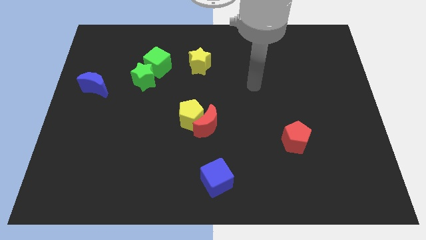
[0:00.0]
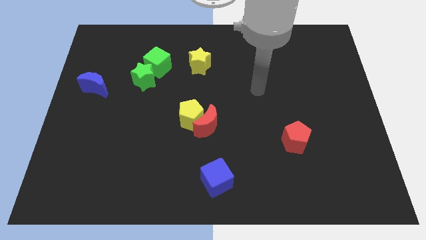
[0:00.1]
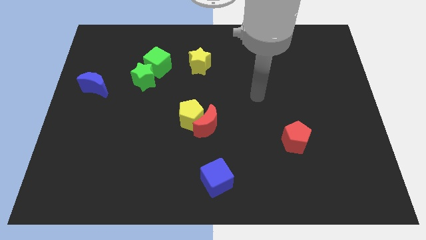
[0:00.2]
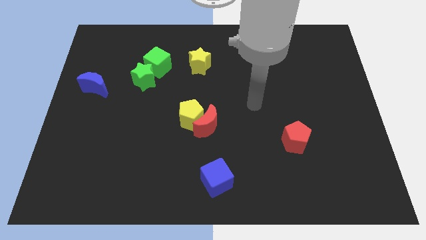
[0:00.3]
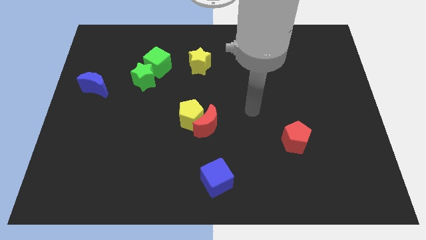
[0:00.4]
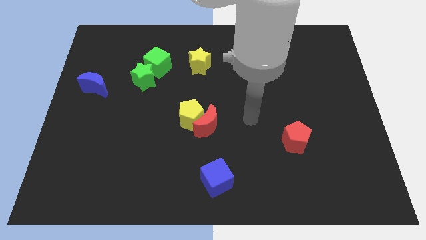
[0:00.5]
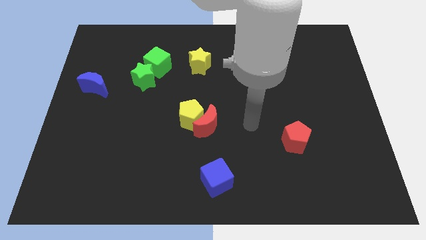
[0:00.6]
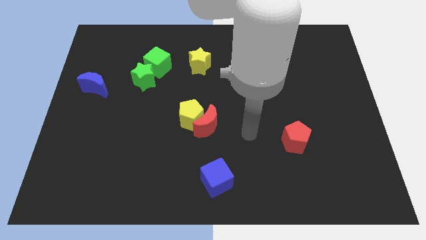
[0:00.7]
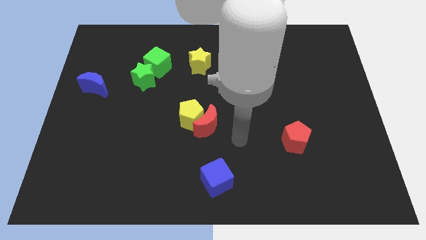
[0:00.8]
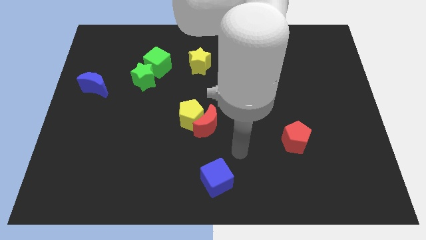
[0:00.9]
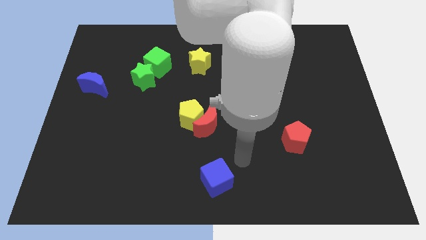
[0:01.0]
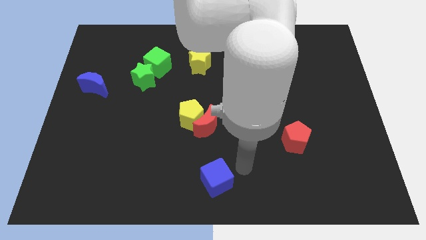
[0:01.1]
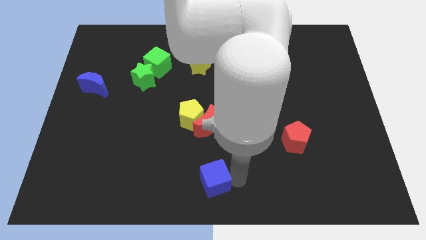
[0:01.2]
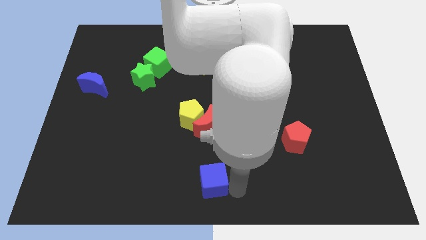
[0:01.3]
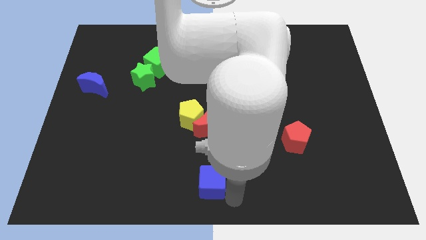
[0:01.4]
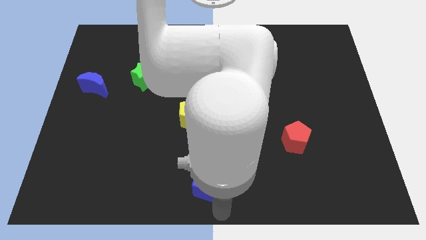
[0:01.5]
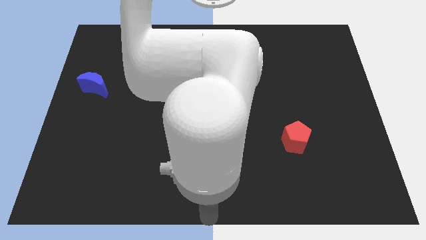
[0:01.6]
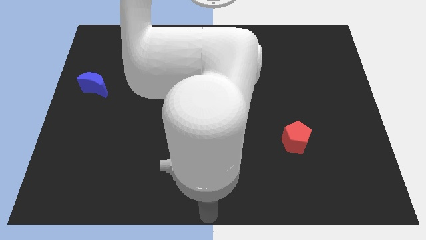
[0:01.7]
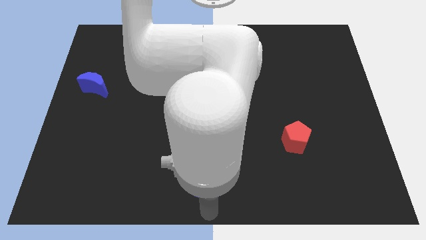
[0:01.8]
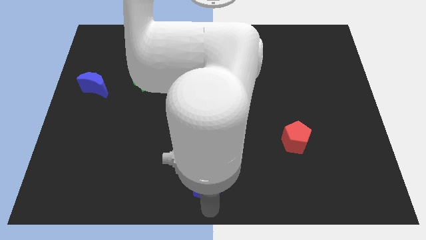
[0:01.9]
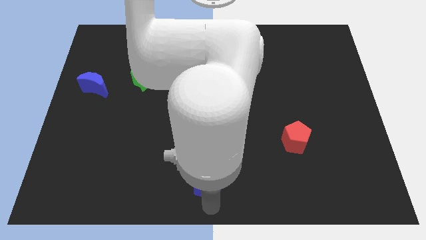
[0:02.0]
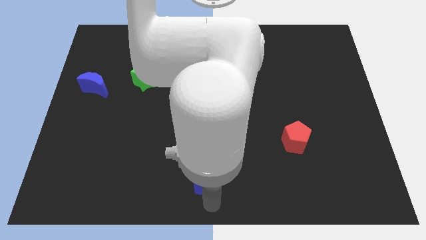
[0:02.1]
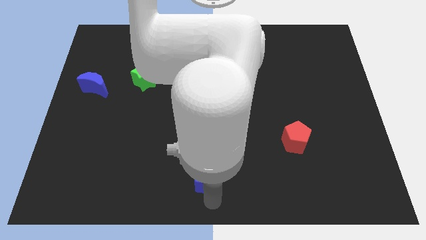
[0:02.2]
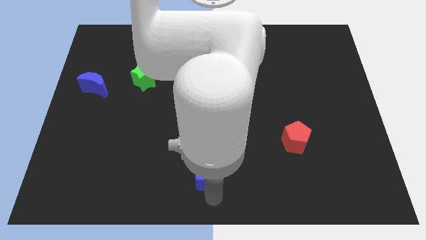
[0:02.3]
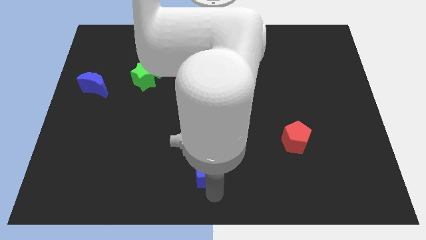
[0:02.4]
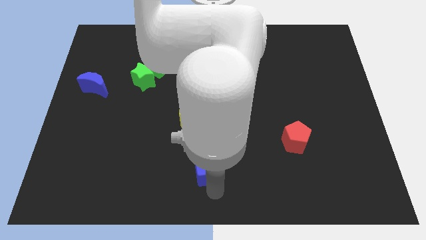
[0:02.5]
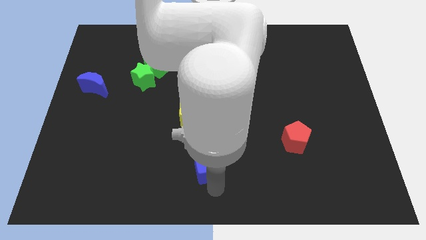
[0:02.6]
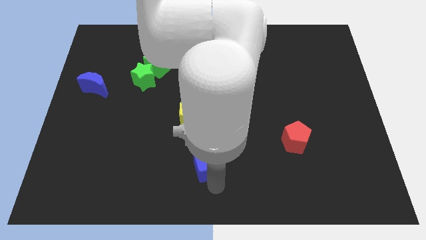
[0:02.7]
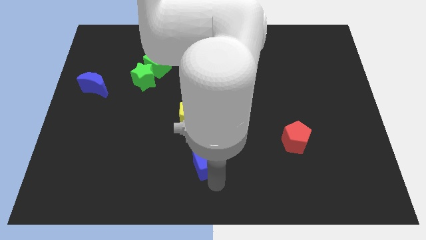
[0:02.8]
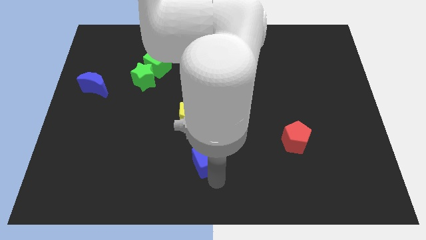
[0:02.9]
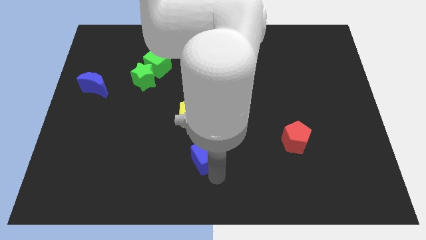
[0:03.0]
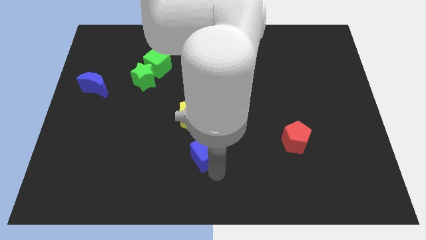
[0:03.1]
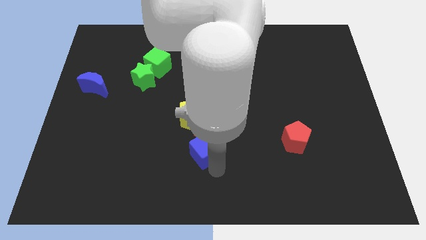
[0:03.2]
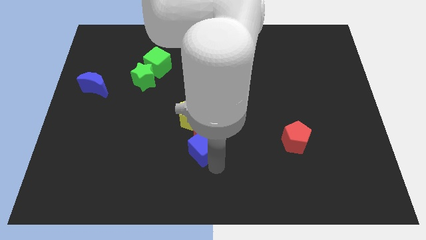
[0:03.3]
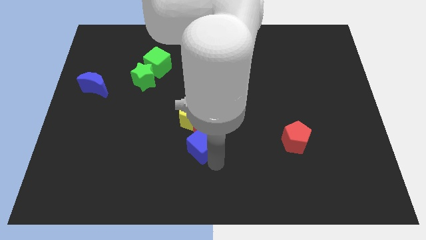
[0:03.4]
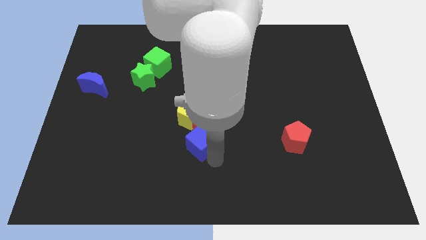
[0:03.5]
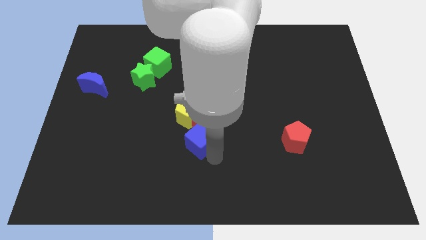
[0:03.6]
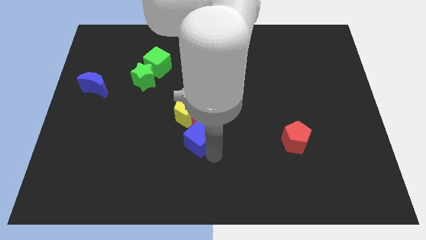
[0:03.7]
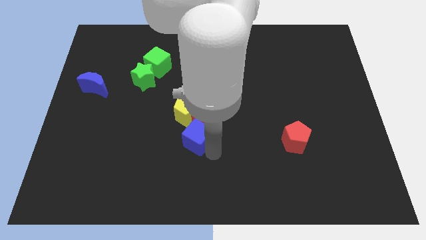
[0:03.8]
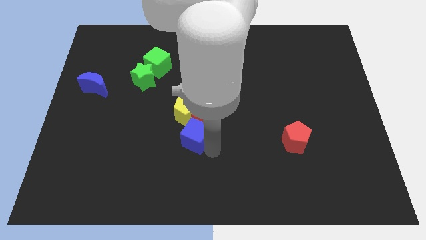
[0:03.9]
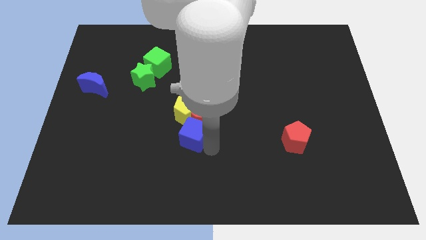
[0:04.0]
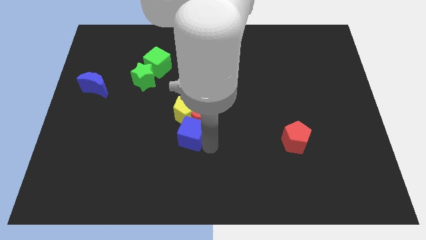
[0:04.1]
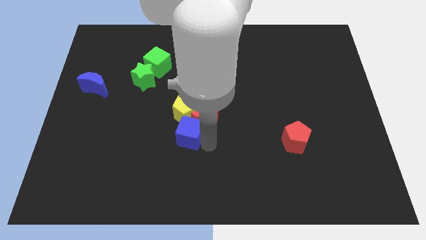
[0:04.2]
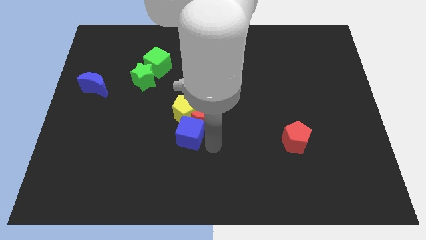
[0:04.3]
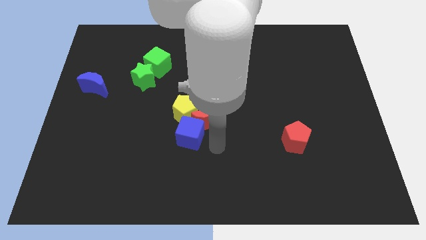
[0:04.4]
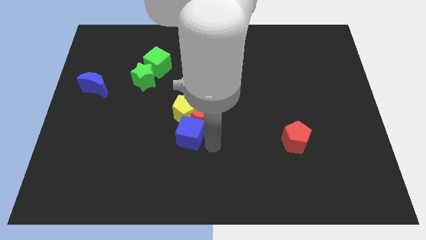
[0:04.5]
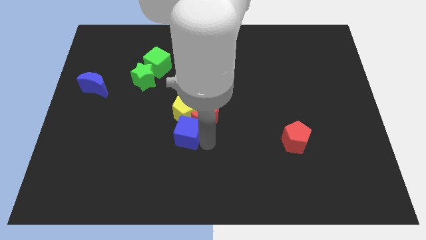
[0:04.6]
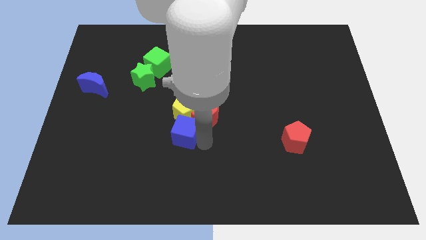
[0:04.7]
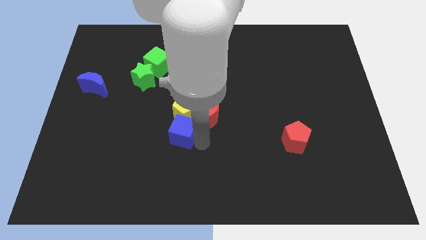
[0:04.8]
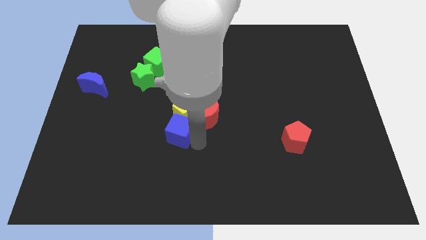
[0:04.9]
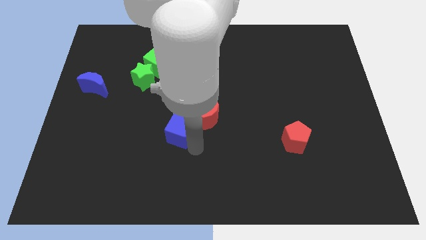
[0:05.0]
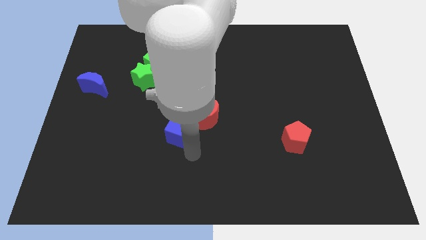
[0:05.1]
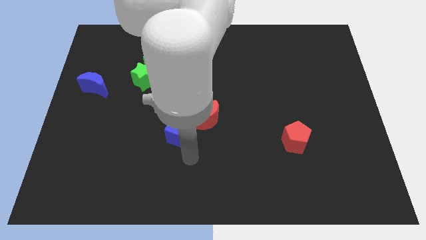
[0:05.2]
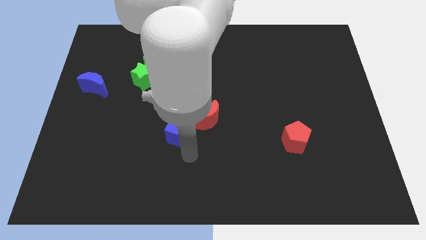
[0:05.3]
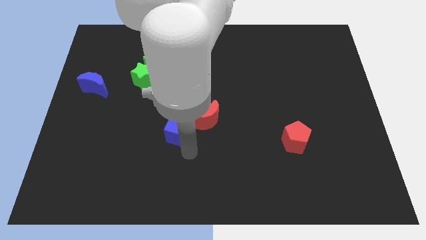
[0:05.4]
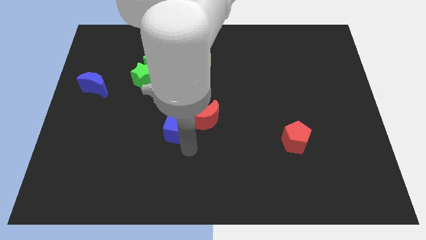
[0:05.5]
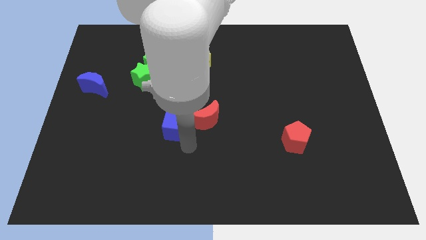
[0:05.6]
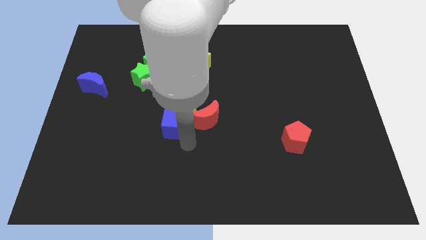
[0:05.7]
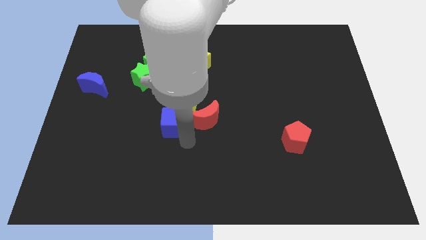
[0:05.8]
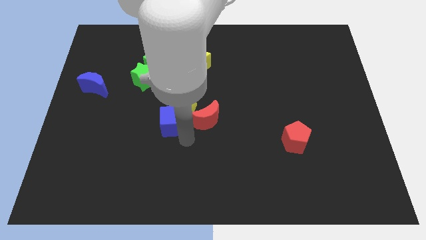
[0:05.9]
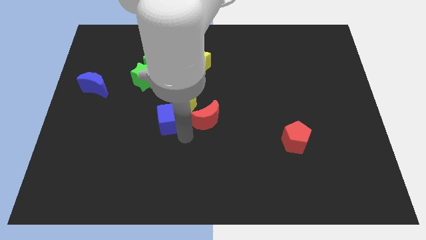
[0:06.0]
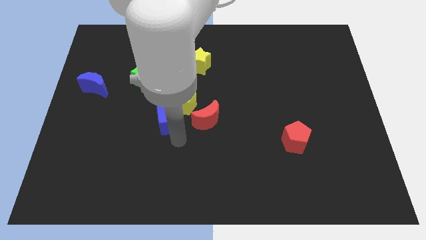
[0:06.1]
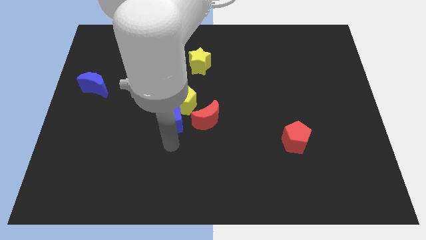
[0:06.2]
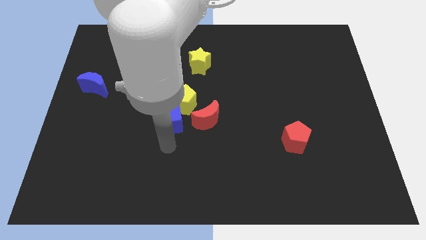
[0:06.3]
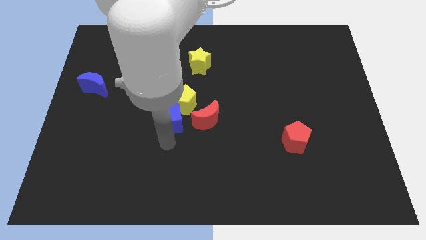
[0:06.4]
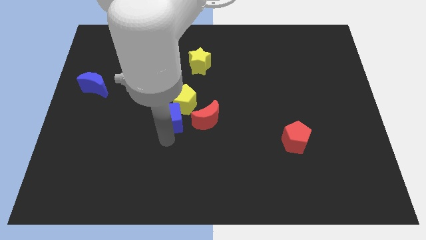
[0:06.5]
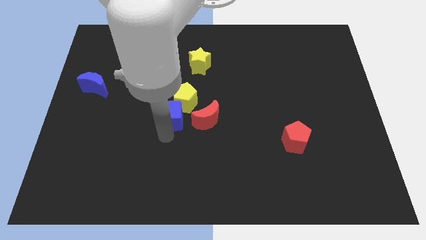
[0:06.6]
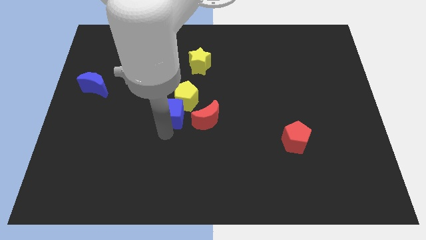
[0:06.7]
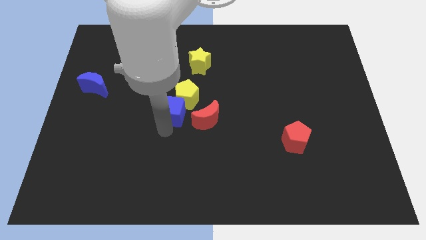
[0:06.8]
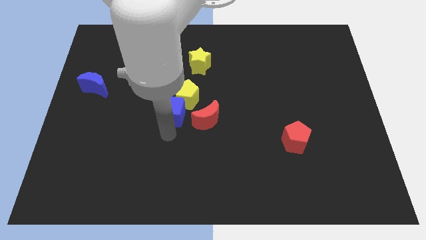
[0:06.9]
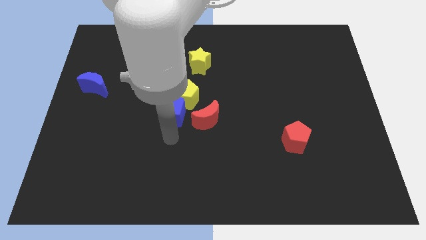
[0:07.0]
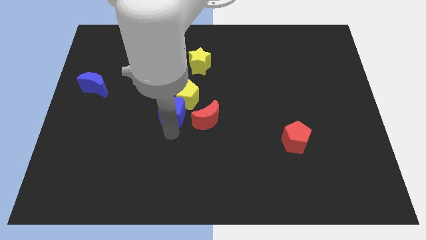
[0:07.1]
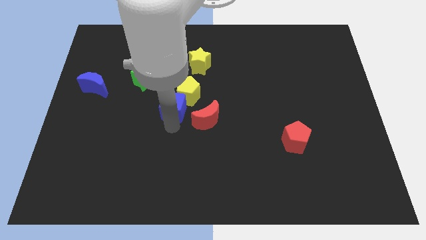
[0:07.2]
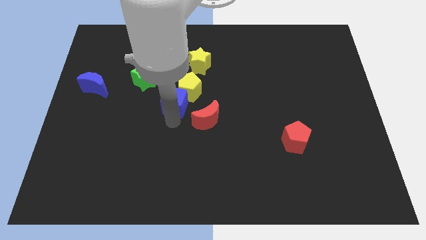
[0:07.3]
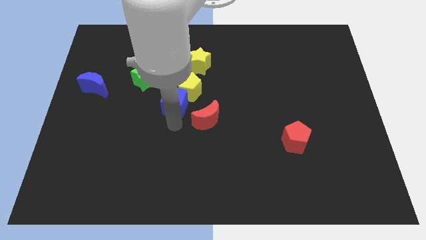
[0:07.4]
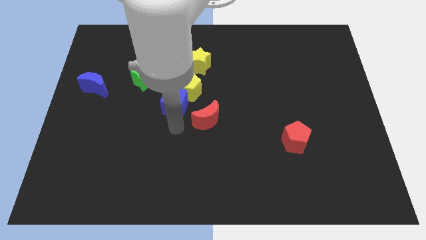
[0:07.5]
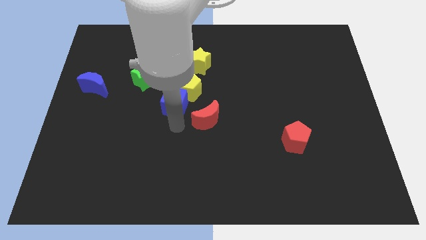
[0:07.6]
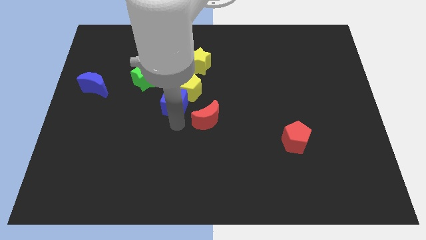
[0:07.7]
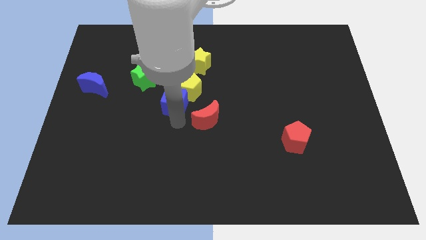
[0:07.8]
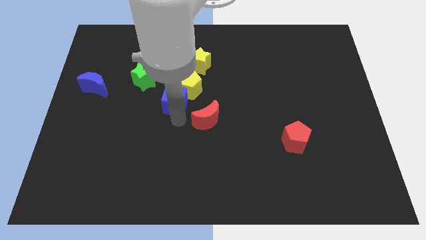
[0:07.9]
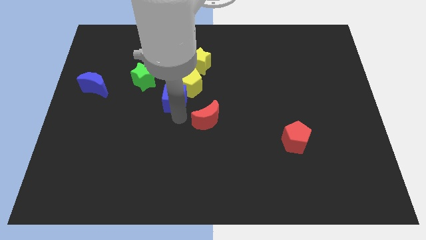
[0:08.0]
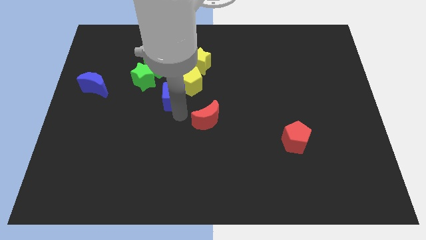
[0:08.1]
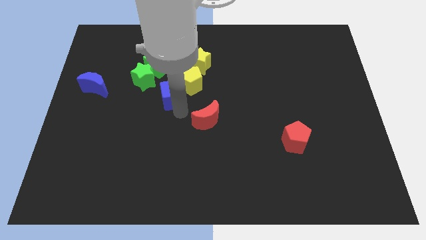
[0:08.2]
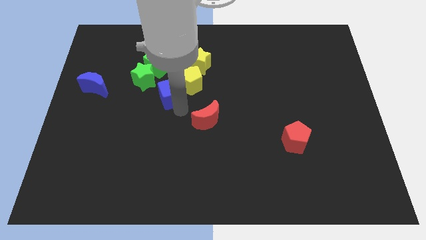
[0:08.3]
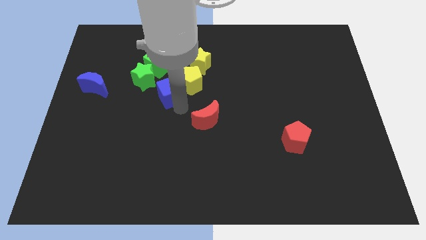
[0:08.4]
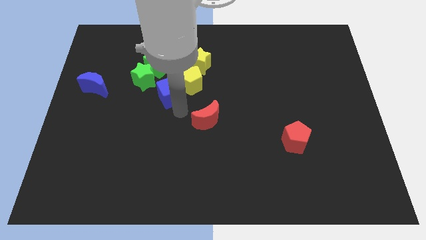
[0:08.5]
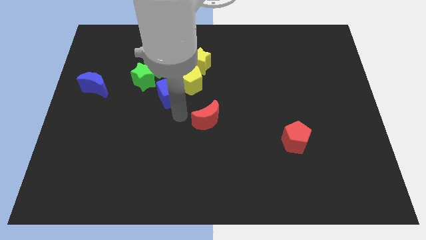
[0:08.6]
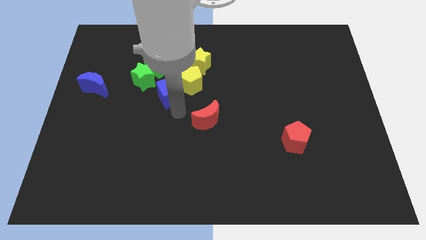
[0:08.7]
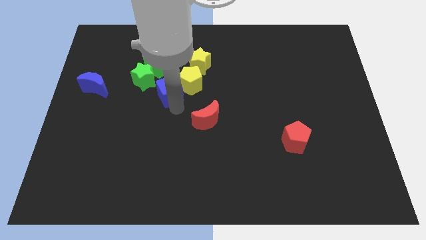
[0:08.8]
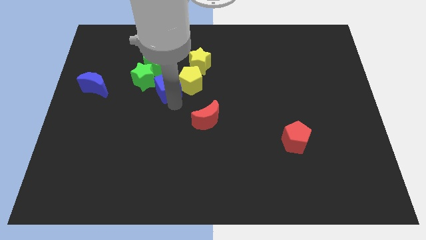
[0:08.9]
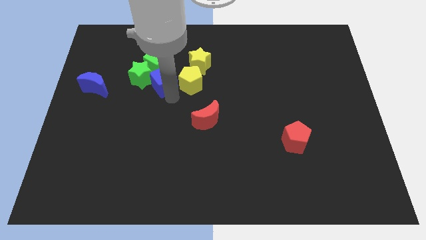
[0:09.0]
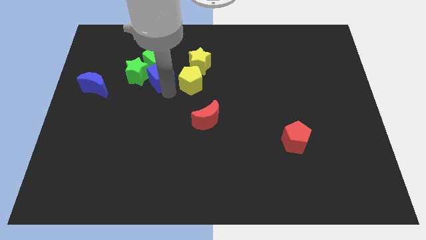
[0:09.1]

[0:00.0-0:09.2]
put the blue cube towards the green cube
